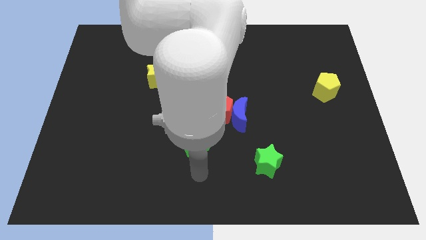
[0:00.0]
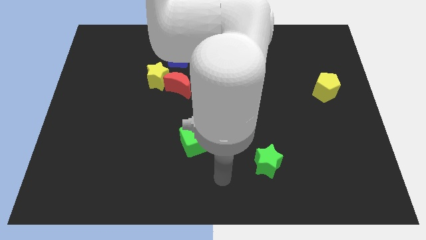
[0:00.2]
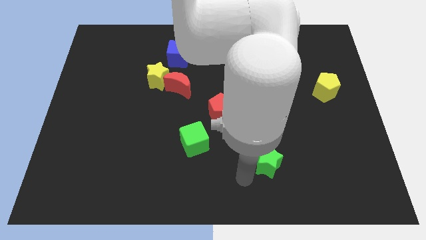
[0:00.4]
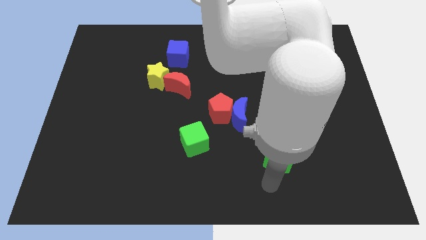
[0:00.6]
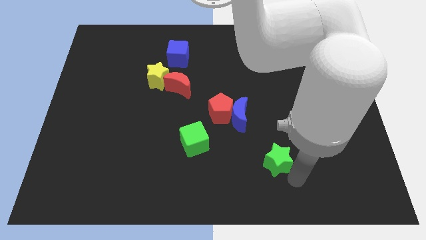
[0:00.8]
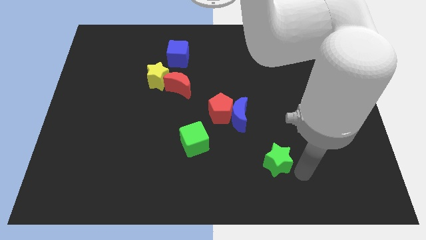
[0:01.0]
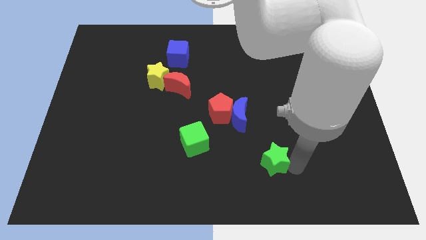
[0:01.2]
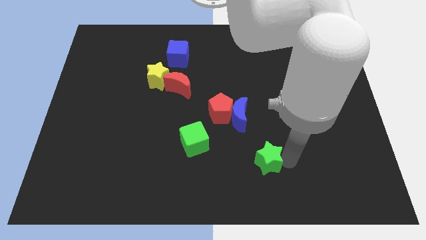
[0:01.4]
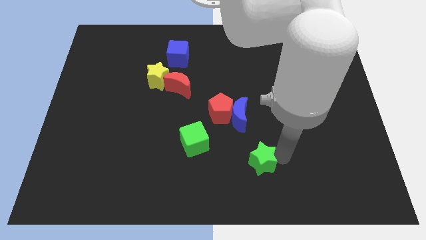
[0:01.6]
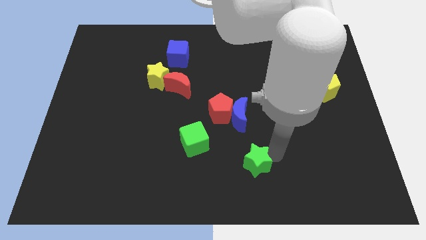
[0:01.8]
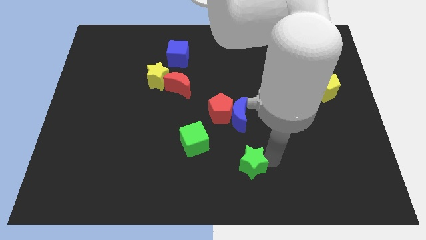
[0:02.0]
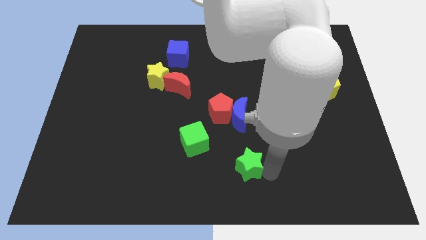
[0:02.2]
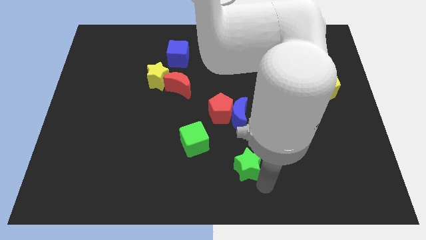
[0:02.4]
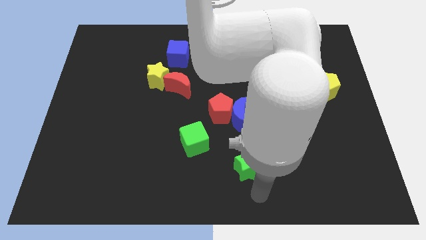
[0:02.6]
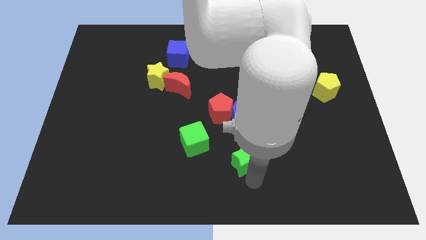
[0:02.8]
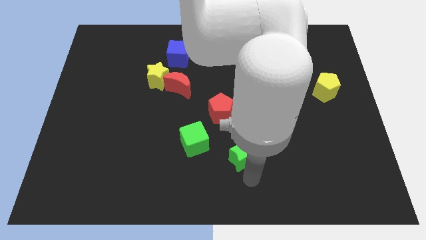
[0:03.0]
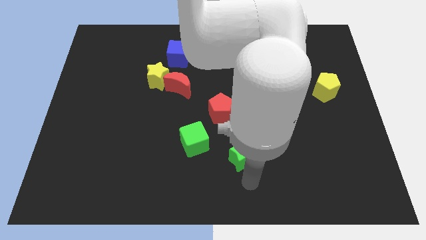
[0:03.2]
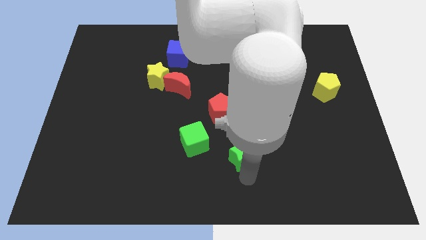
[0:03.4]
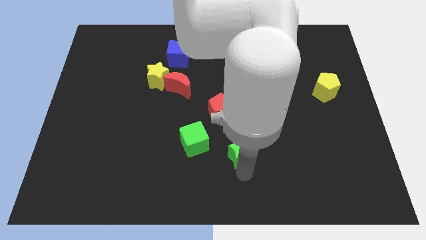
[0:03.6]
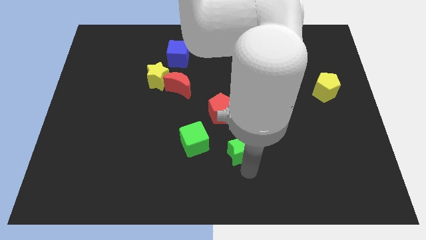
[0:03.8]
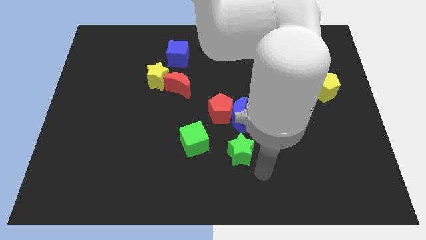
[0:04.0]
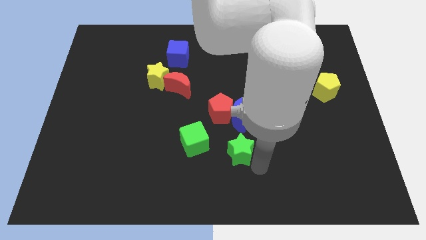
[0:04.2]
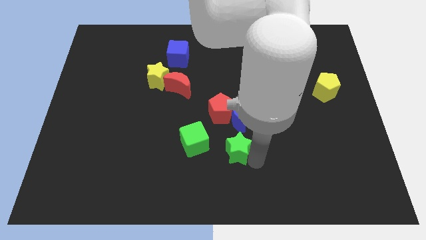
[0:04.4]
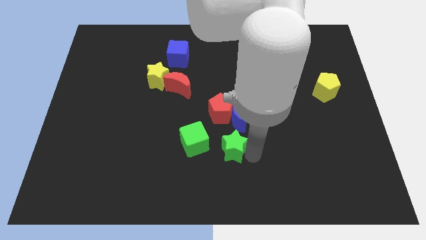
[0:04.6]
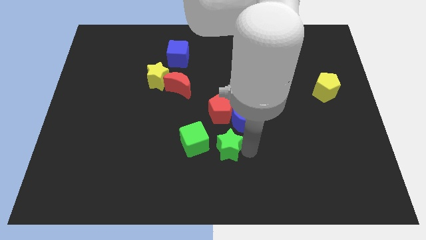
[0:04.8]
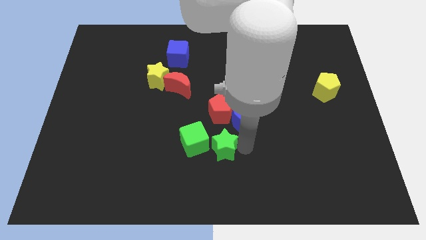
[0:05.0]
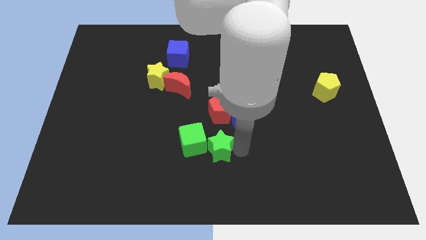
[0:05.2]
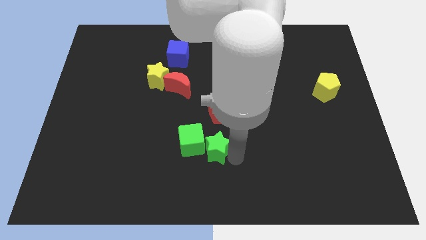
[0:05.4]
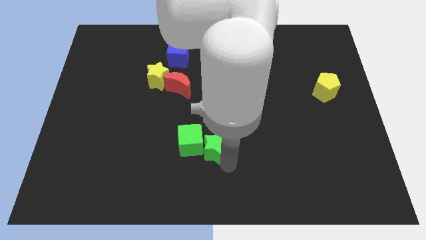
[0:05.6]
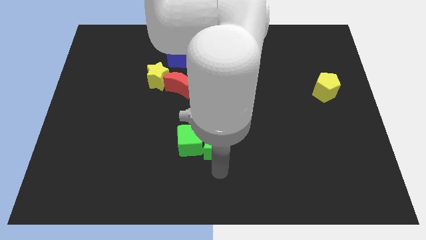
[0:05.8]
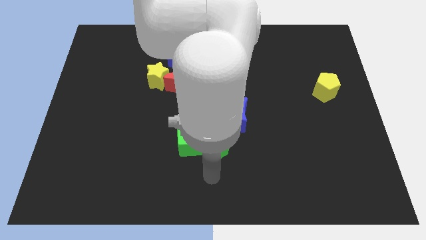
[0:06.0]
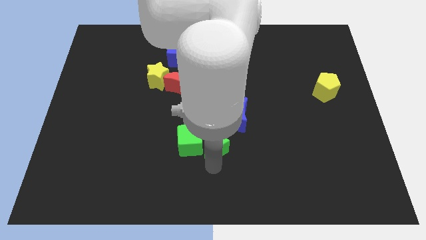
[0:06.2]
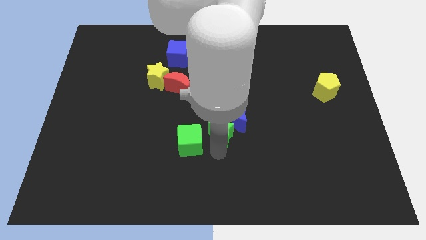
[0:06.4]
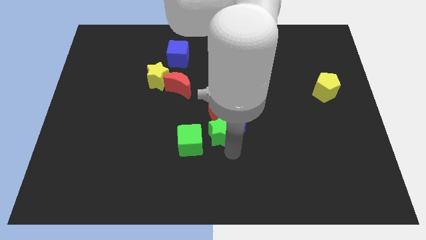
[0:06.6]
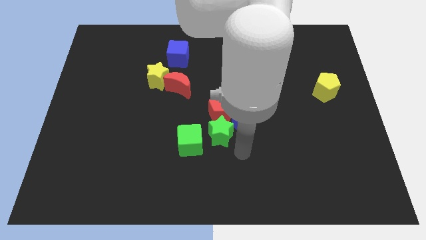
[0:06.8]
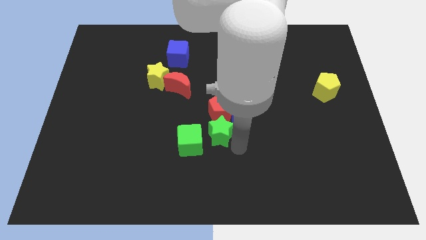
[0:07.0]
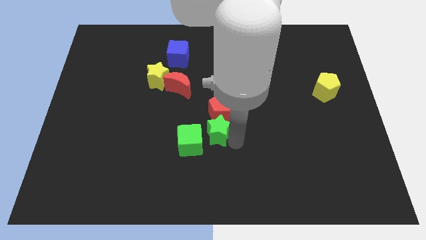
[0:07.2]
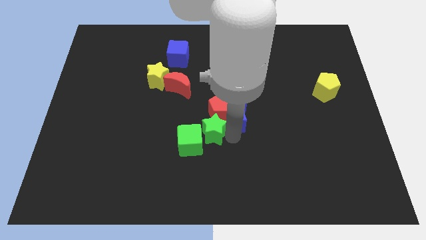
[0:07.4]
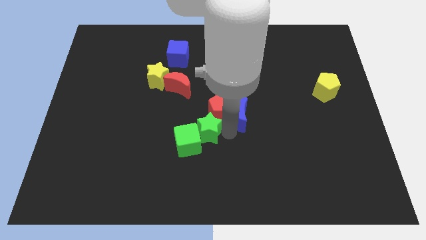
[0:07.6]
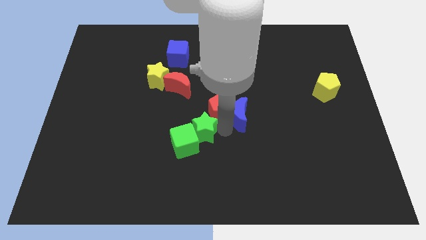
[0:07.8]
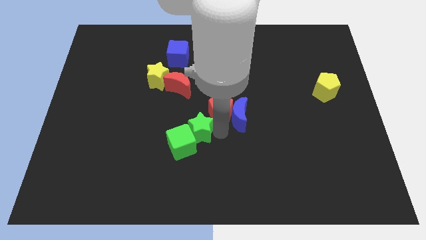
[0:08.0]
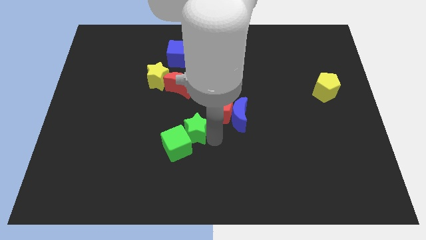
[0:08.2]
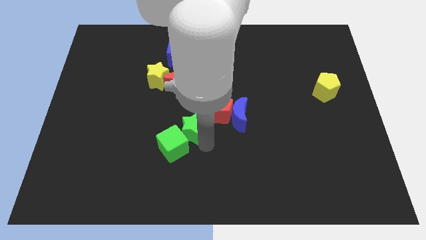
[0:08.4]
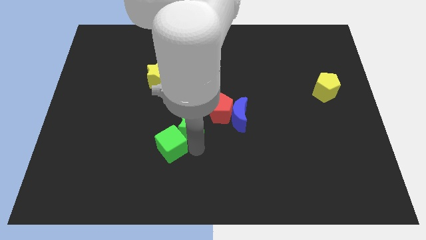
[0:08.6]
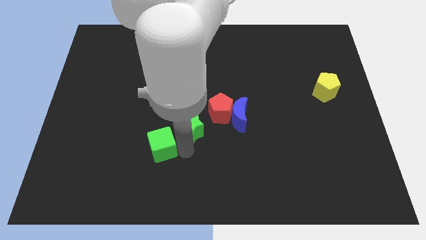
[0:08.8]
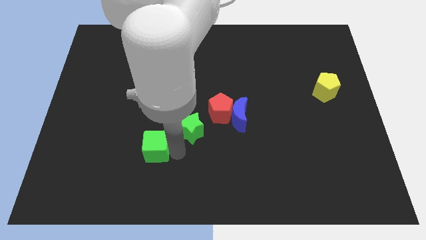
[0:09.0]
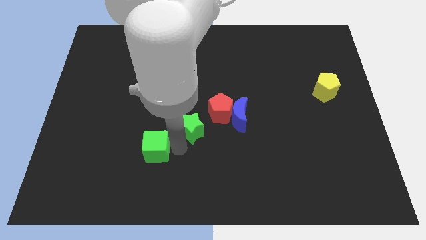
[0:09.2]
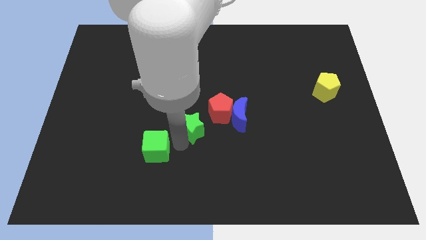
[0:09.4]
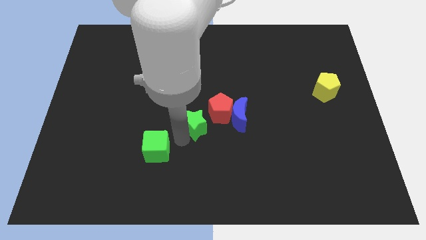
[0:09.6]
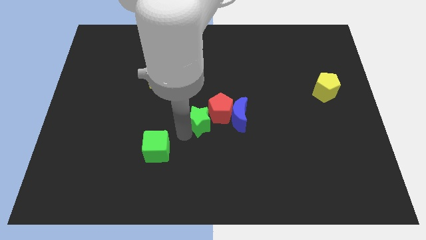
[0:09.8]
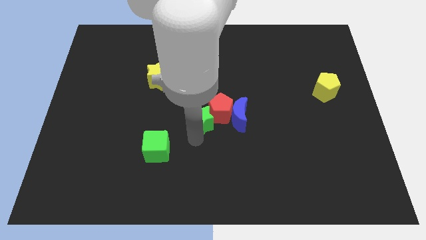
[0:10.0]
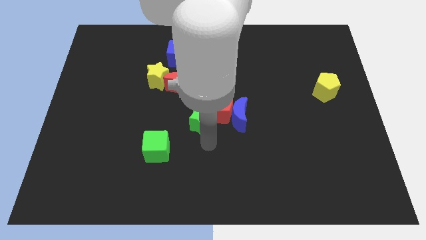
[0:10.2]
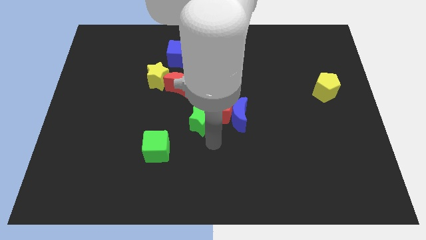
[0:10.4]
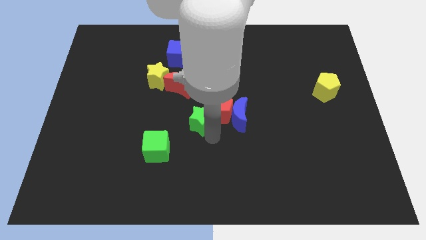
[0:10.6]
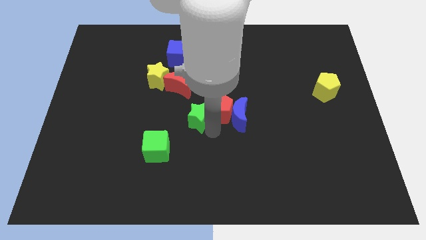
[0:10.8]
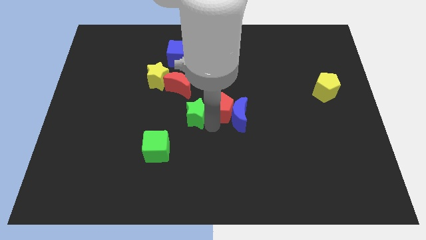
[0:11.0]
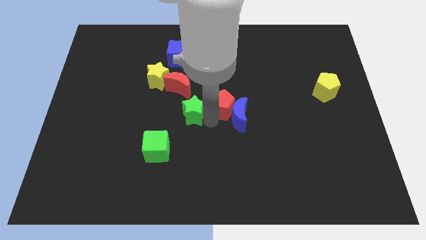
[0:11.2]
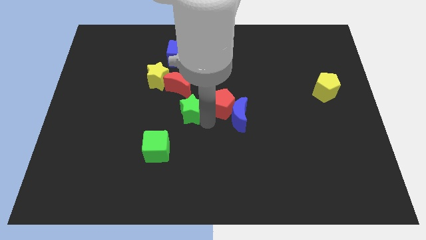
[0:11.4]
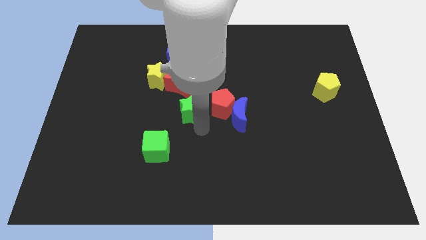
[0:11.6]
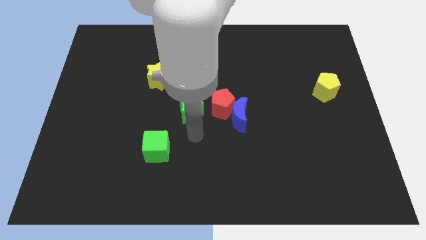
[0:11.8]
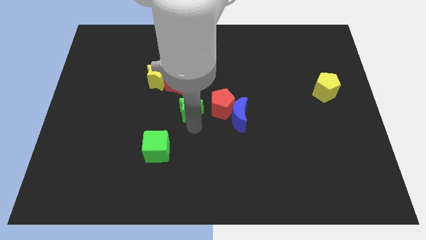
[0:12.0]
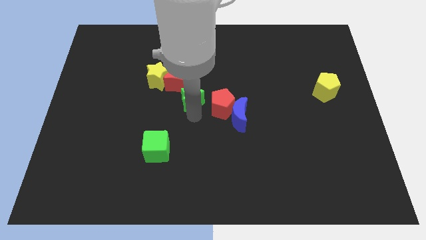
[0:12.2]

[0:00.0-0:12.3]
push the green star close to the red moon

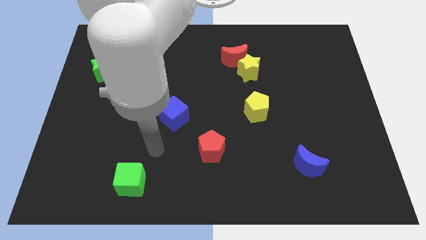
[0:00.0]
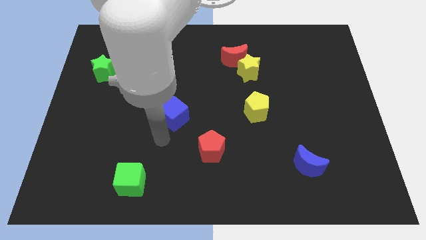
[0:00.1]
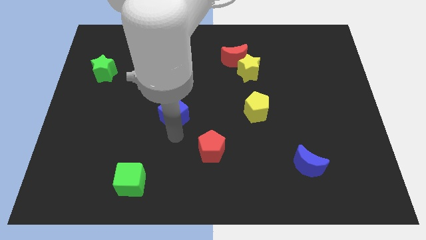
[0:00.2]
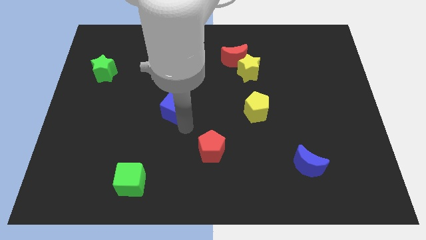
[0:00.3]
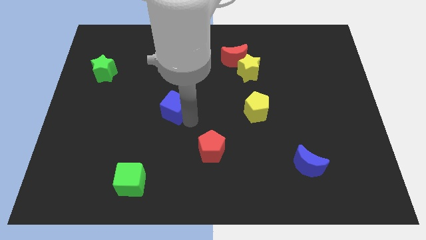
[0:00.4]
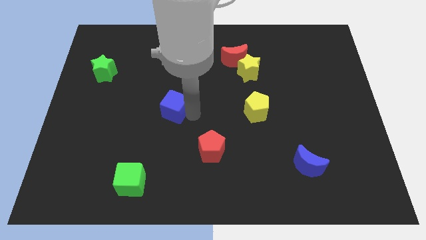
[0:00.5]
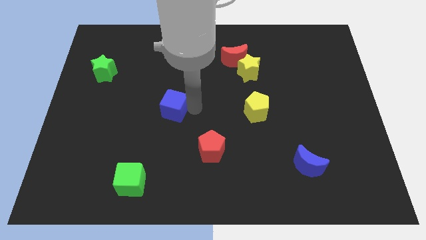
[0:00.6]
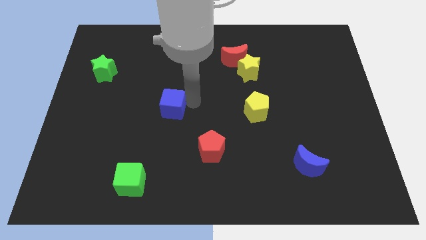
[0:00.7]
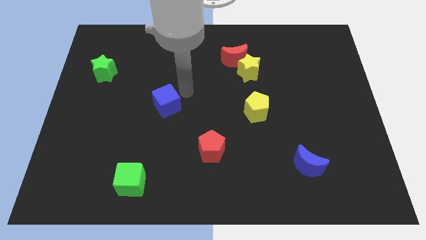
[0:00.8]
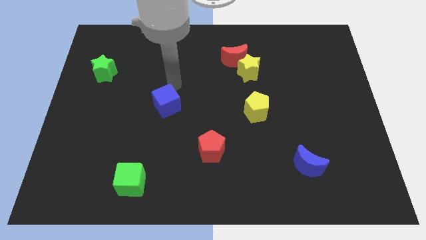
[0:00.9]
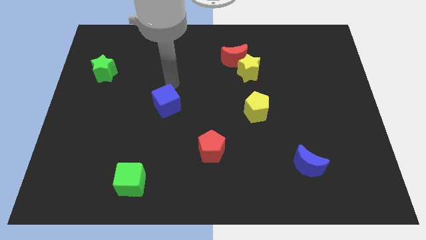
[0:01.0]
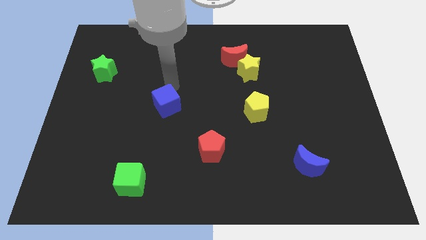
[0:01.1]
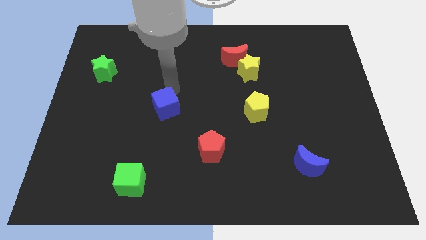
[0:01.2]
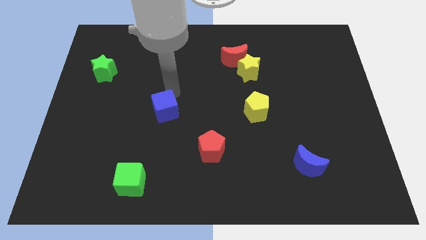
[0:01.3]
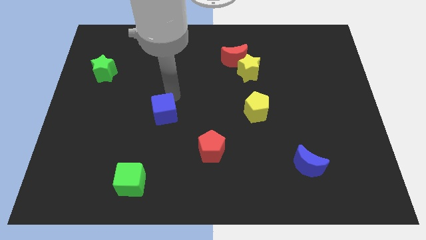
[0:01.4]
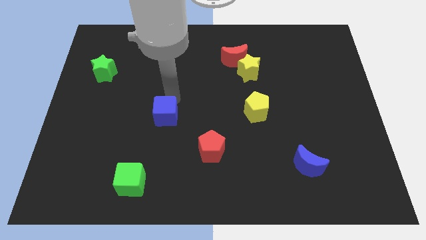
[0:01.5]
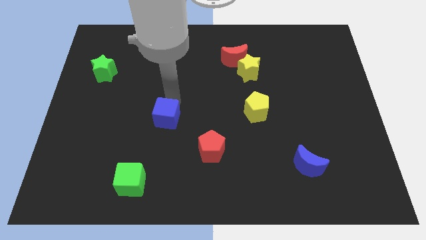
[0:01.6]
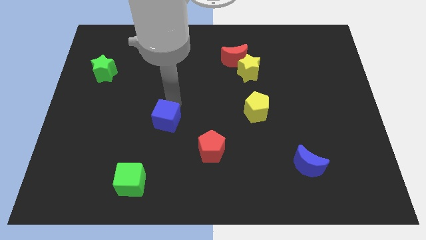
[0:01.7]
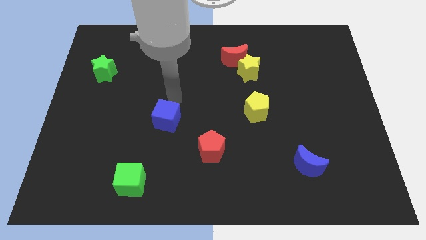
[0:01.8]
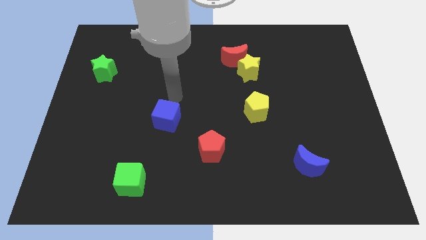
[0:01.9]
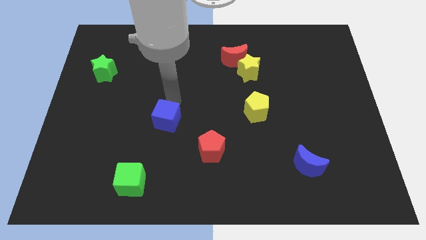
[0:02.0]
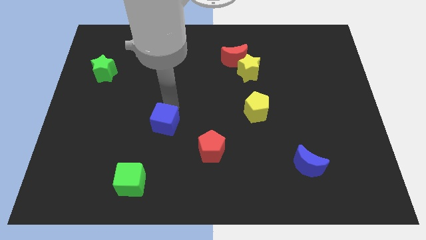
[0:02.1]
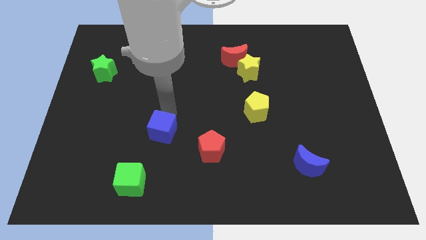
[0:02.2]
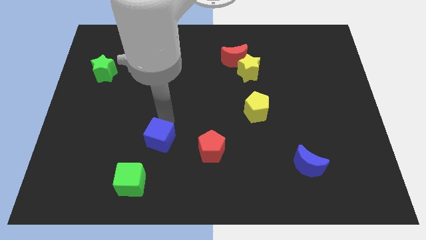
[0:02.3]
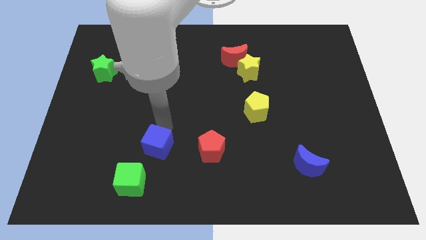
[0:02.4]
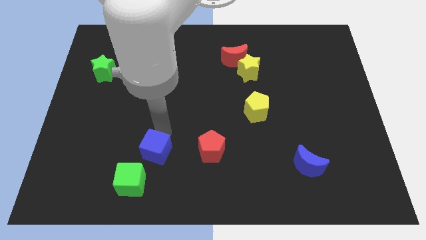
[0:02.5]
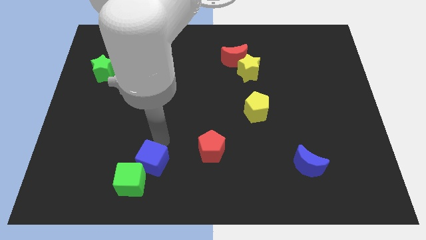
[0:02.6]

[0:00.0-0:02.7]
push the blue cube close to the green cube
